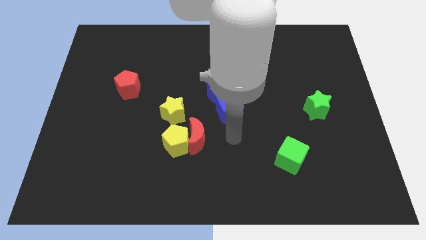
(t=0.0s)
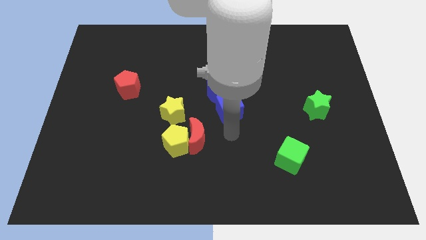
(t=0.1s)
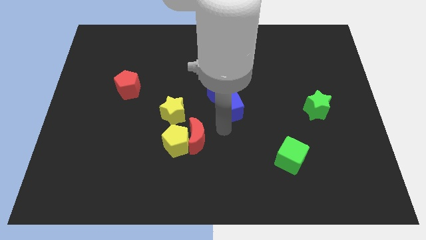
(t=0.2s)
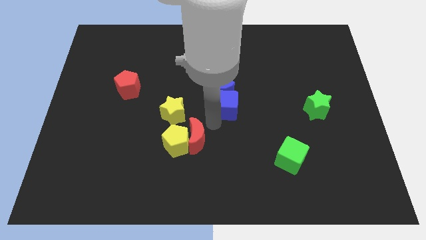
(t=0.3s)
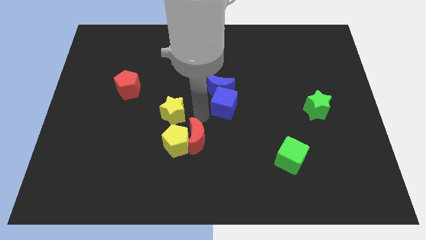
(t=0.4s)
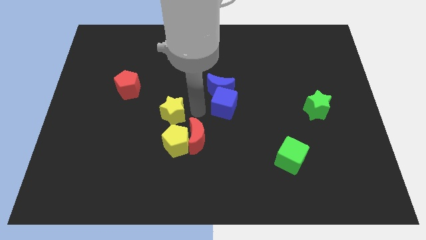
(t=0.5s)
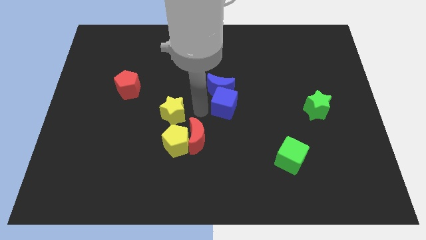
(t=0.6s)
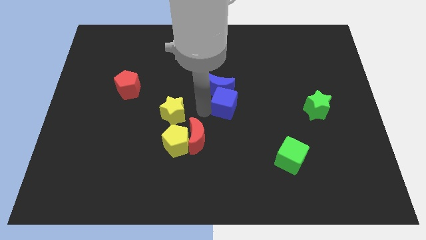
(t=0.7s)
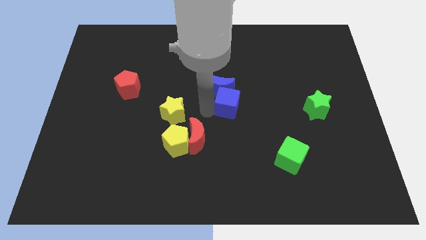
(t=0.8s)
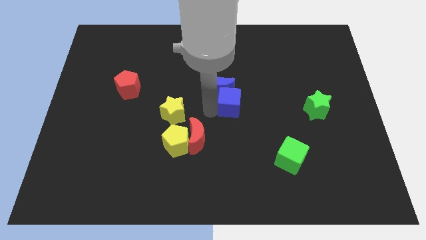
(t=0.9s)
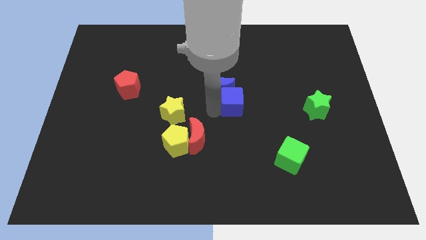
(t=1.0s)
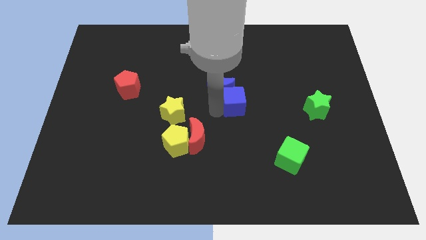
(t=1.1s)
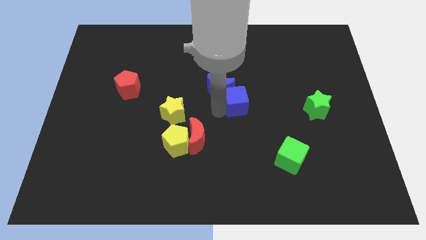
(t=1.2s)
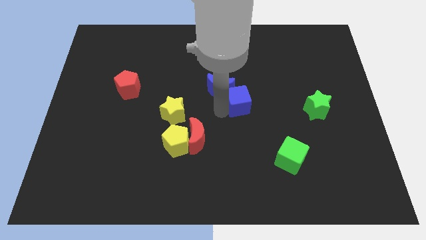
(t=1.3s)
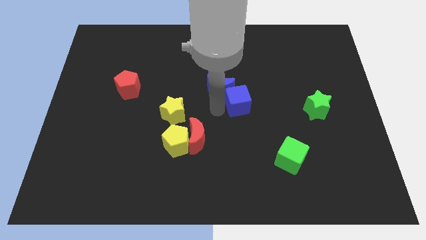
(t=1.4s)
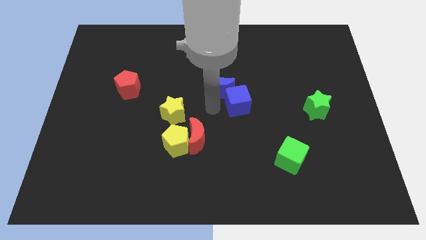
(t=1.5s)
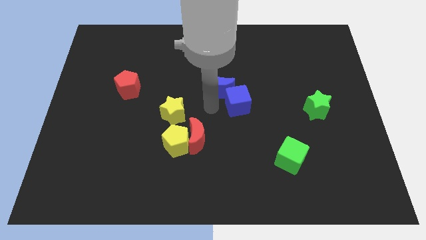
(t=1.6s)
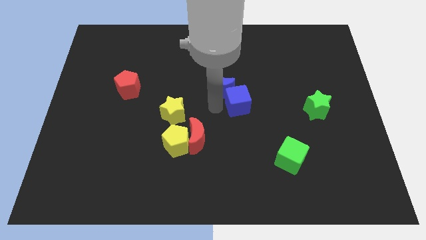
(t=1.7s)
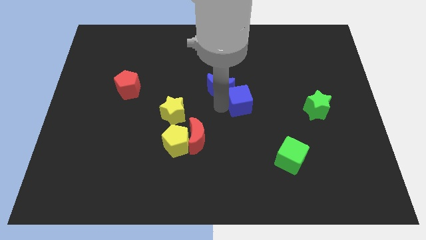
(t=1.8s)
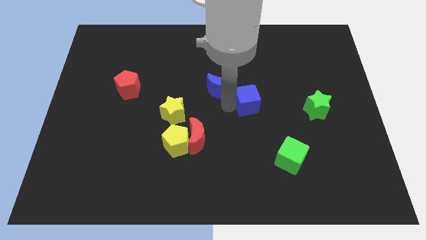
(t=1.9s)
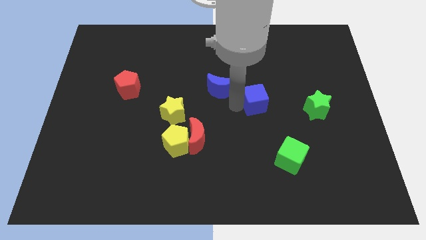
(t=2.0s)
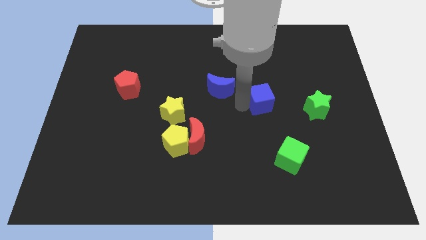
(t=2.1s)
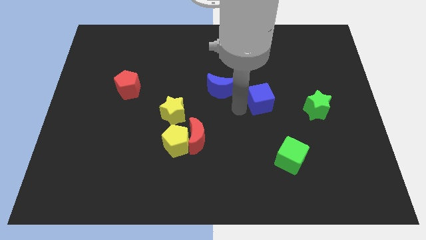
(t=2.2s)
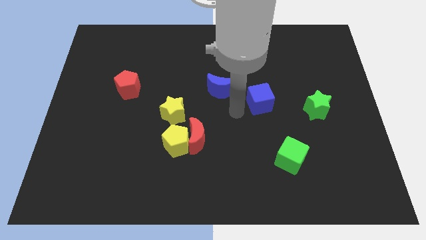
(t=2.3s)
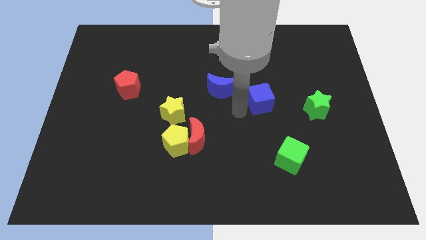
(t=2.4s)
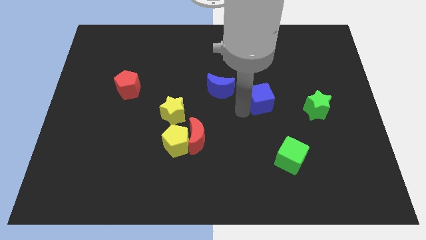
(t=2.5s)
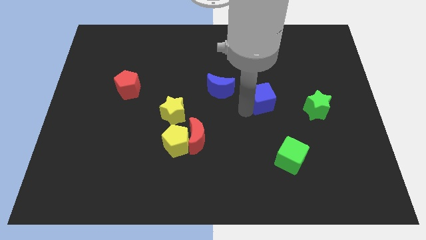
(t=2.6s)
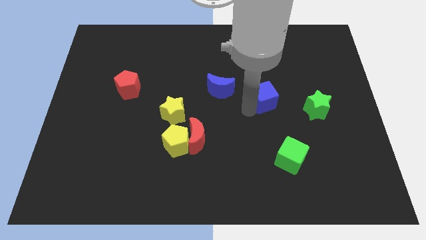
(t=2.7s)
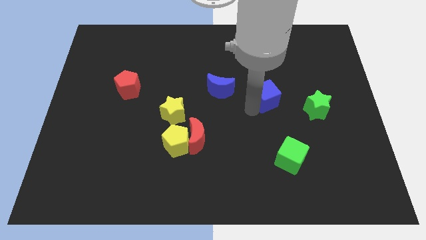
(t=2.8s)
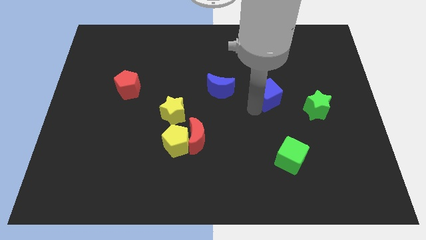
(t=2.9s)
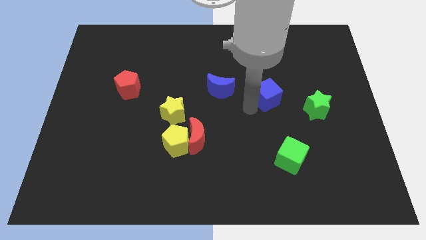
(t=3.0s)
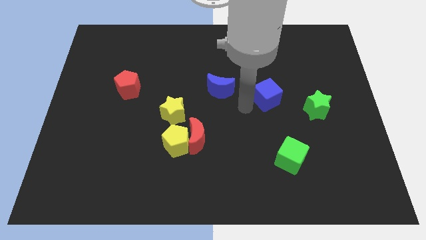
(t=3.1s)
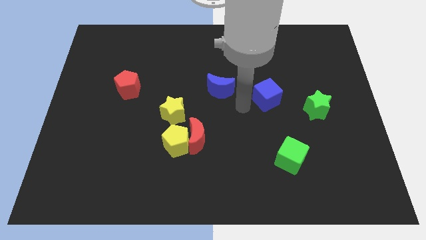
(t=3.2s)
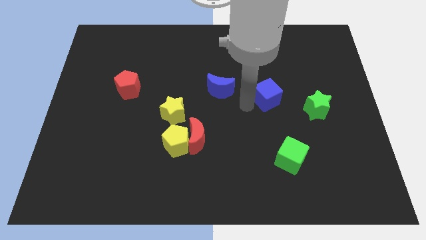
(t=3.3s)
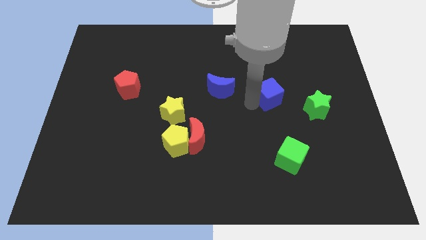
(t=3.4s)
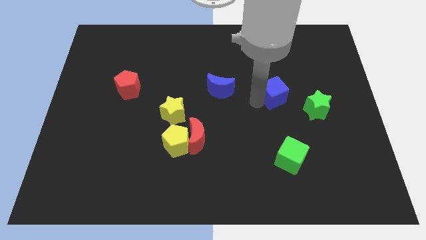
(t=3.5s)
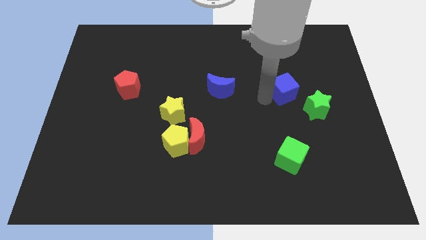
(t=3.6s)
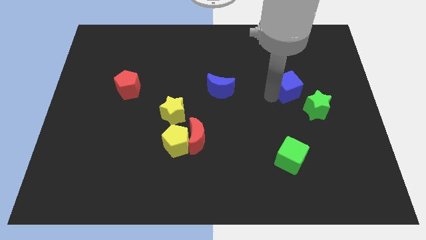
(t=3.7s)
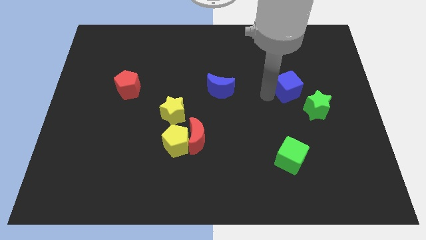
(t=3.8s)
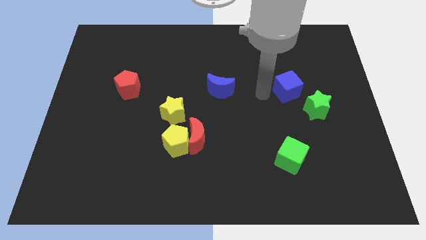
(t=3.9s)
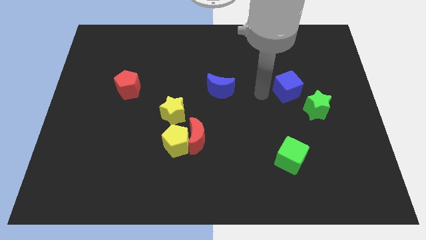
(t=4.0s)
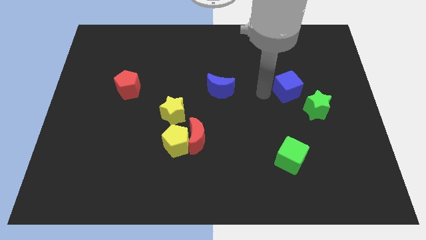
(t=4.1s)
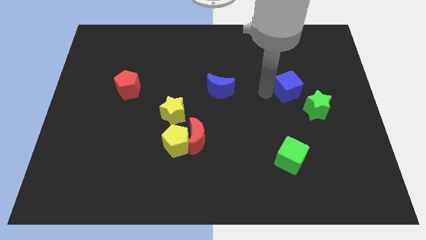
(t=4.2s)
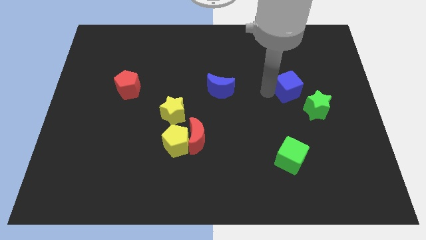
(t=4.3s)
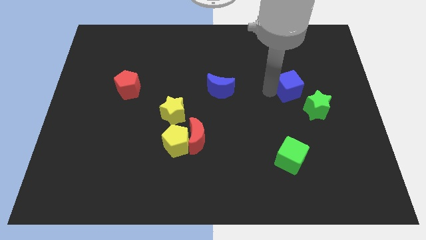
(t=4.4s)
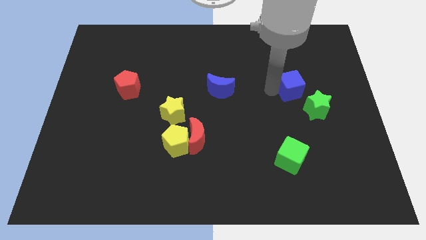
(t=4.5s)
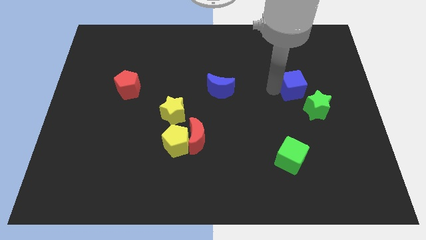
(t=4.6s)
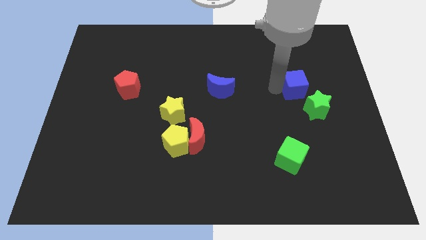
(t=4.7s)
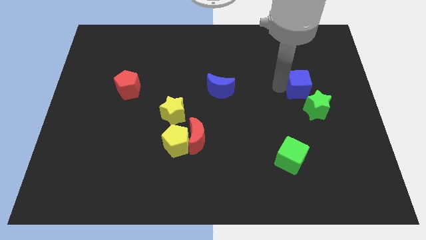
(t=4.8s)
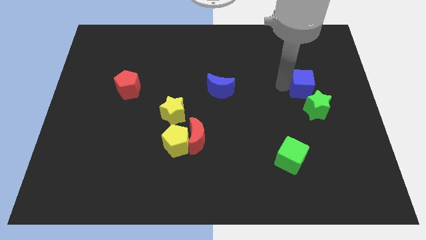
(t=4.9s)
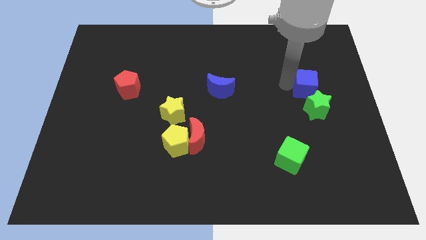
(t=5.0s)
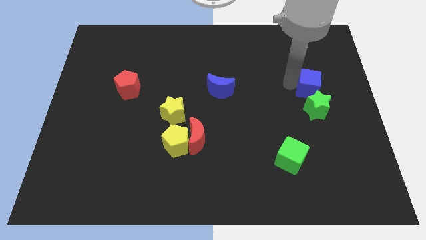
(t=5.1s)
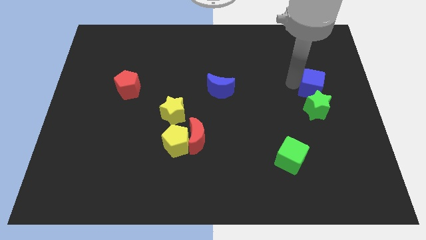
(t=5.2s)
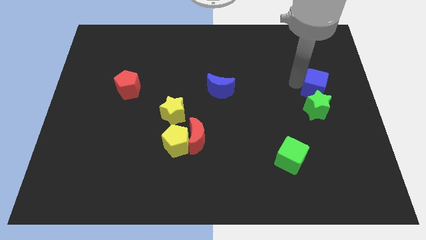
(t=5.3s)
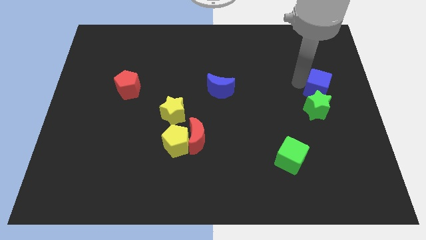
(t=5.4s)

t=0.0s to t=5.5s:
slide the blue cube to the right side
